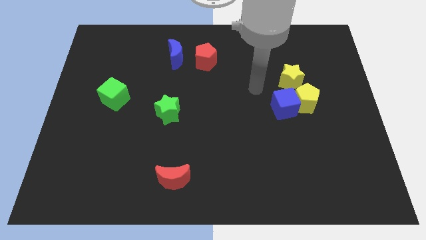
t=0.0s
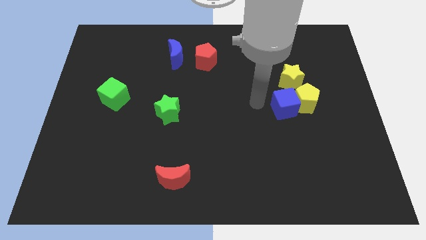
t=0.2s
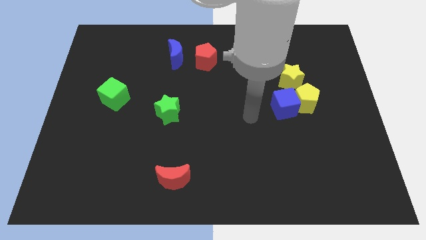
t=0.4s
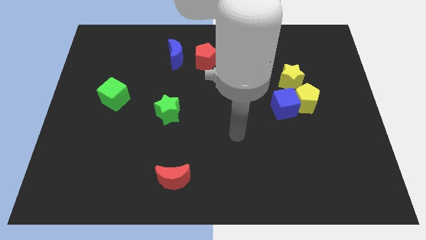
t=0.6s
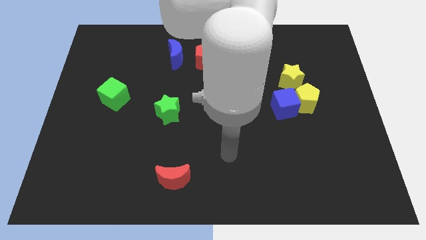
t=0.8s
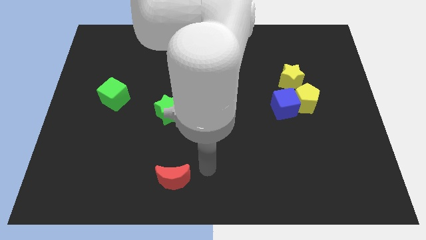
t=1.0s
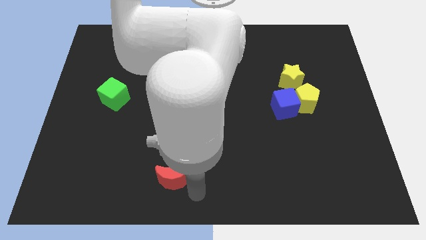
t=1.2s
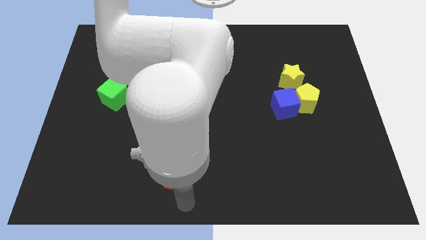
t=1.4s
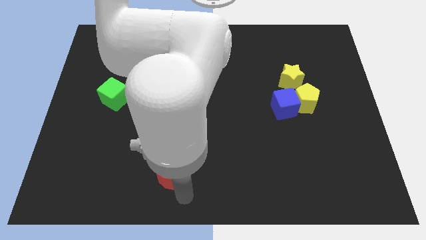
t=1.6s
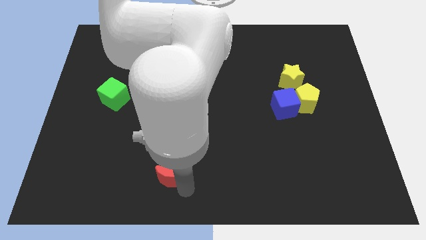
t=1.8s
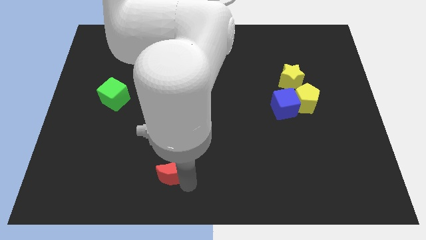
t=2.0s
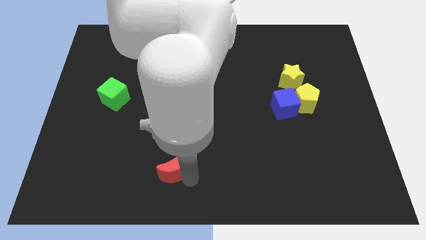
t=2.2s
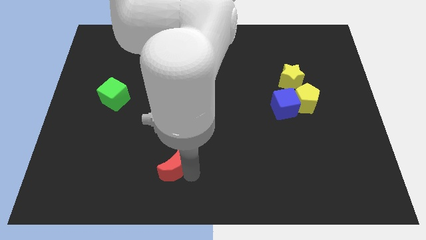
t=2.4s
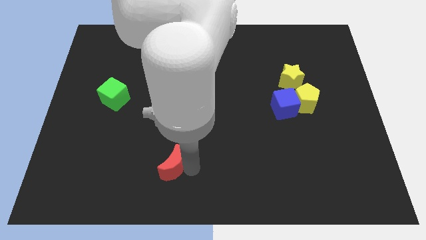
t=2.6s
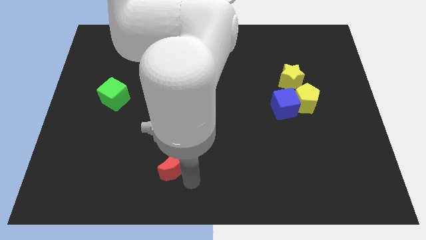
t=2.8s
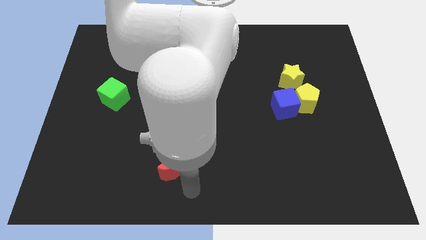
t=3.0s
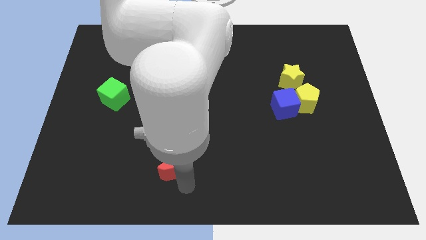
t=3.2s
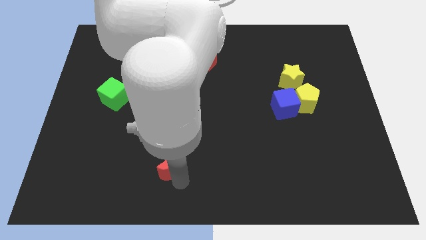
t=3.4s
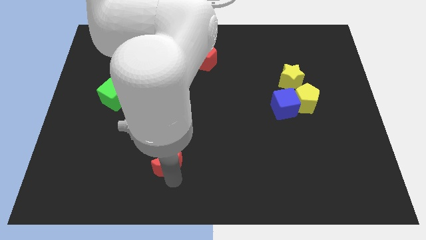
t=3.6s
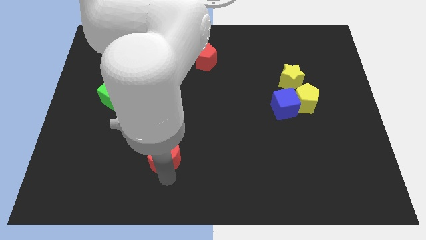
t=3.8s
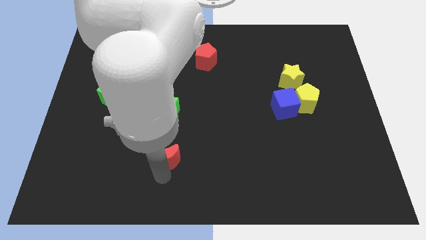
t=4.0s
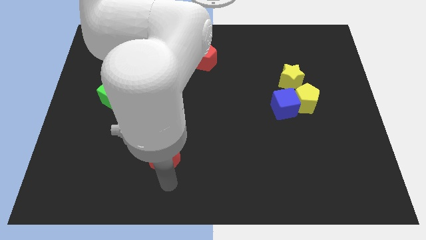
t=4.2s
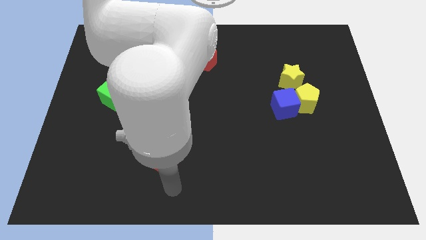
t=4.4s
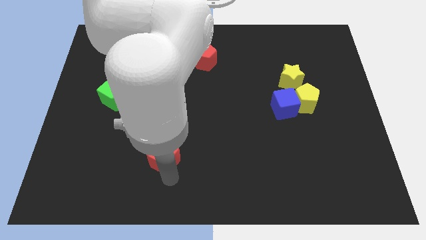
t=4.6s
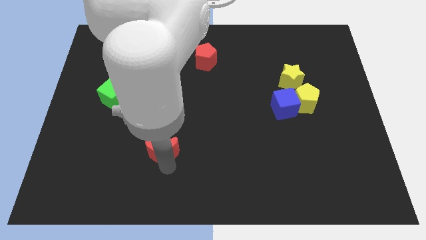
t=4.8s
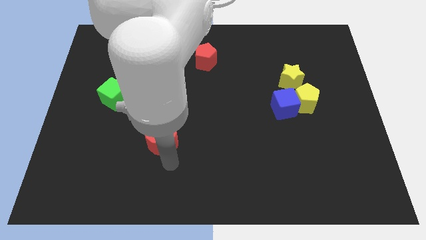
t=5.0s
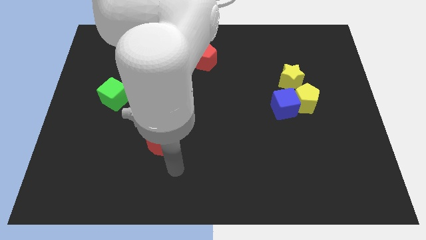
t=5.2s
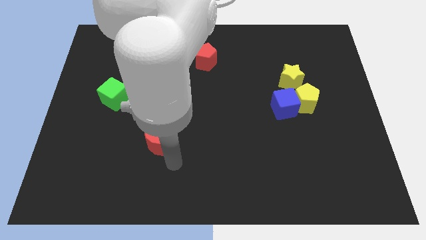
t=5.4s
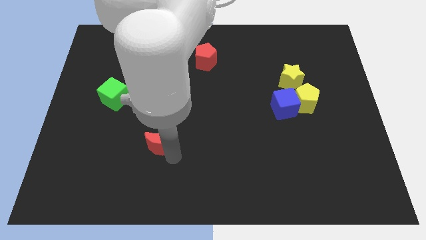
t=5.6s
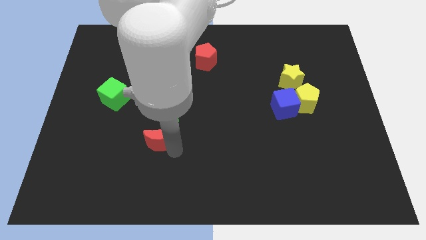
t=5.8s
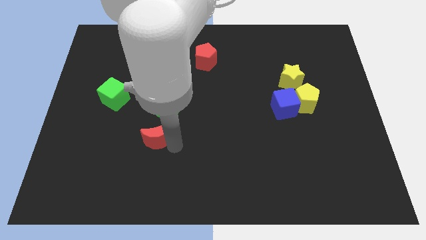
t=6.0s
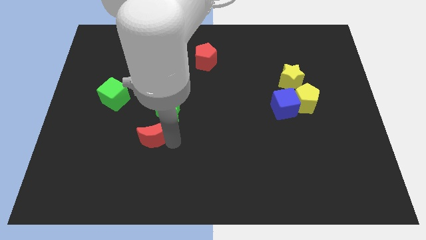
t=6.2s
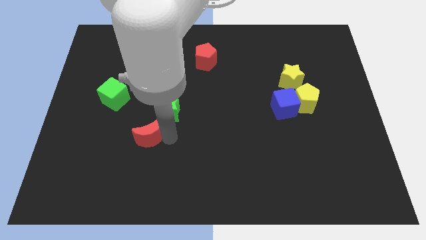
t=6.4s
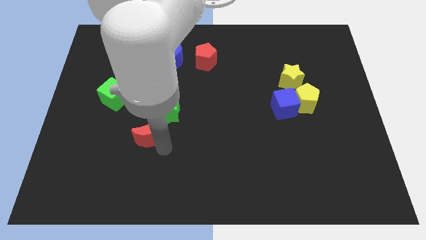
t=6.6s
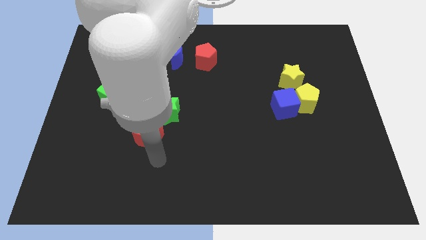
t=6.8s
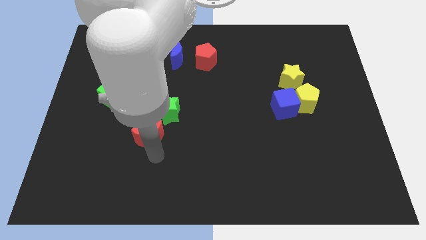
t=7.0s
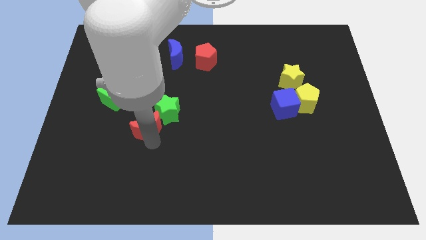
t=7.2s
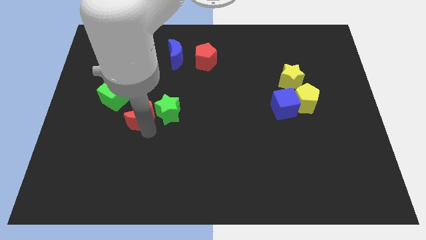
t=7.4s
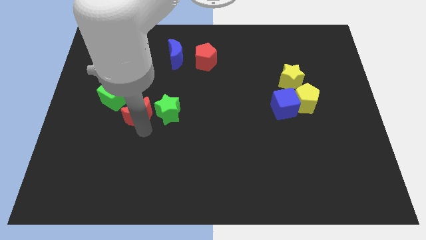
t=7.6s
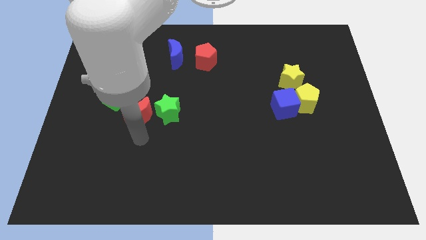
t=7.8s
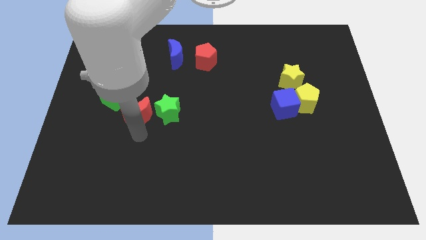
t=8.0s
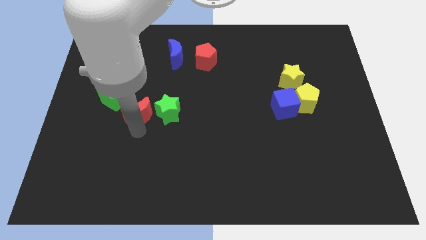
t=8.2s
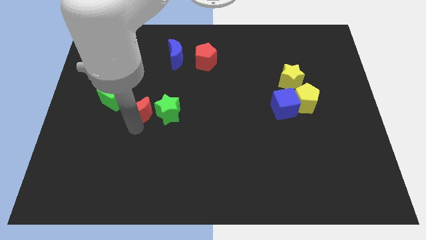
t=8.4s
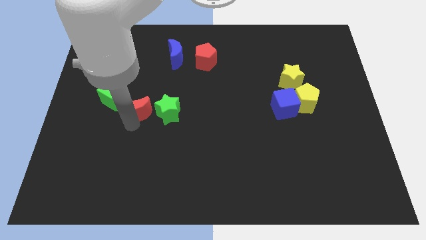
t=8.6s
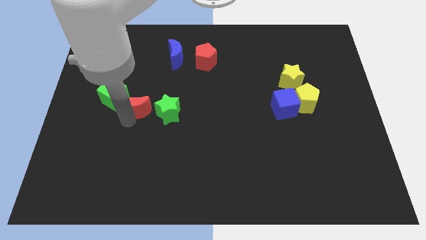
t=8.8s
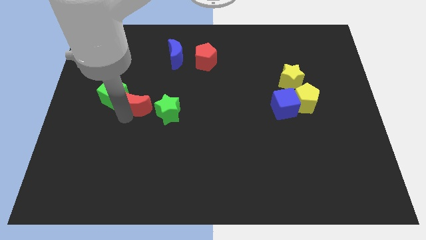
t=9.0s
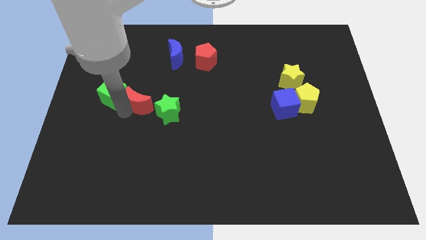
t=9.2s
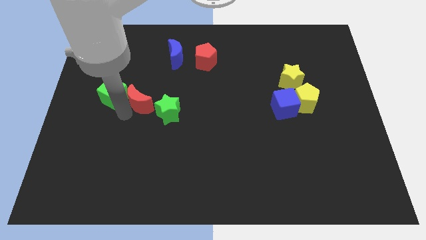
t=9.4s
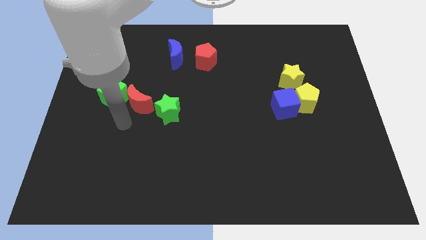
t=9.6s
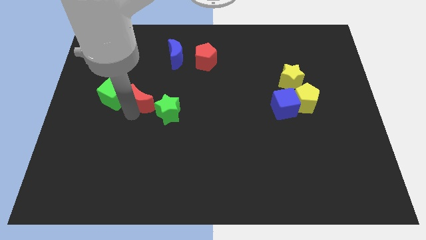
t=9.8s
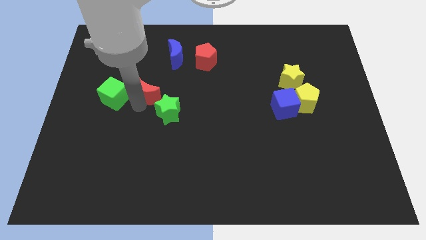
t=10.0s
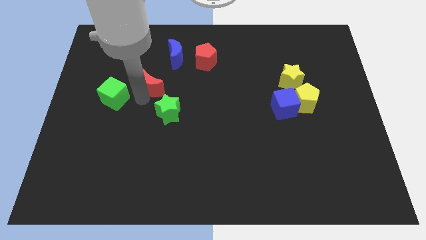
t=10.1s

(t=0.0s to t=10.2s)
move the red moon above the green star

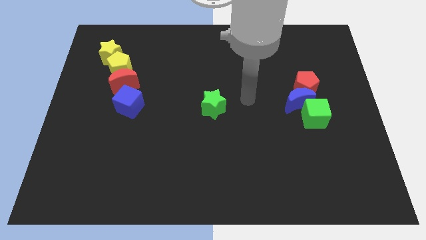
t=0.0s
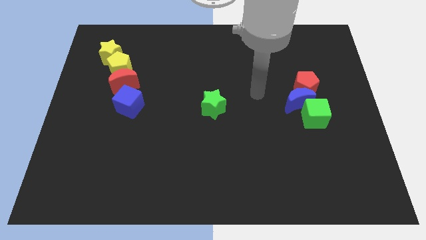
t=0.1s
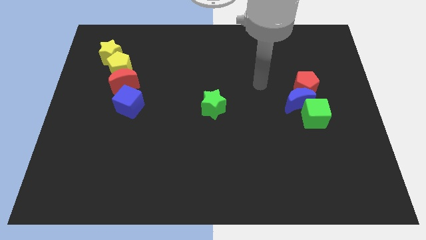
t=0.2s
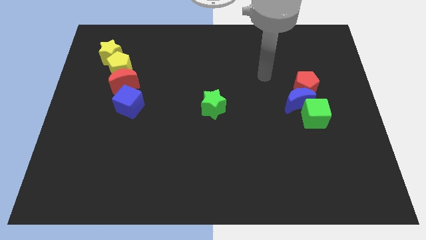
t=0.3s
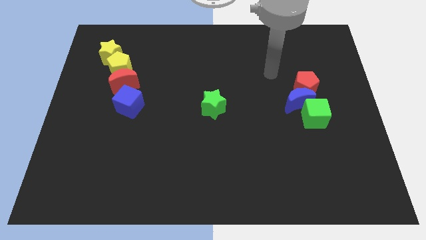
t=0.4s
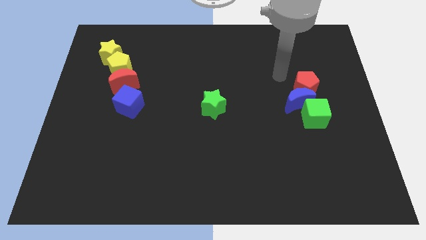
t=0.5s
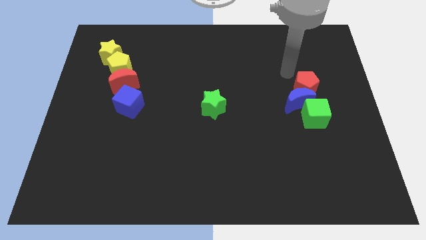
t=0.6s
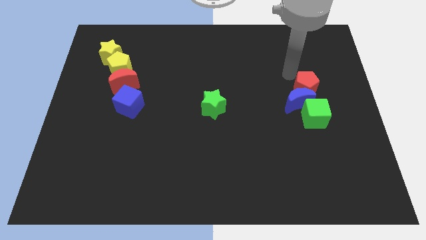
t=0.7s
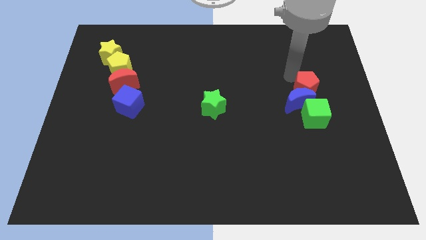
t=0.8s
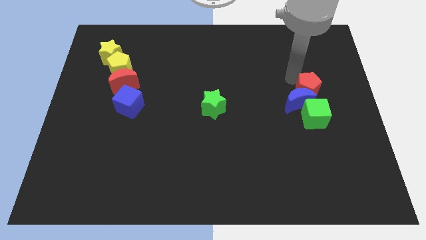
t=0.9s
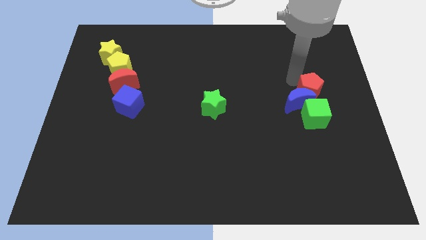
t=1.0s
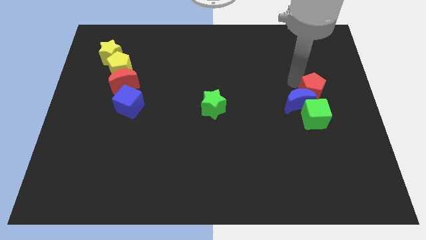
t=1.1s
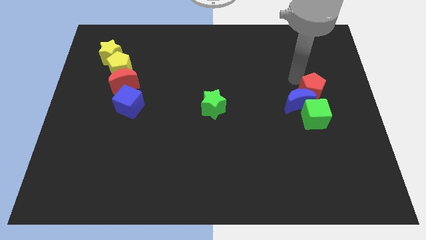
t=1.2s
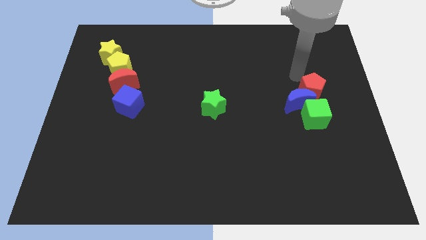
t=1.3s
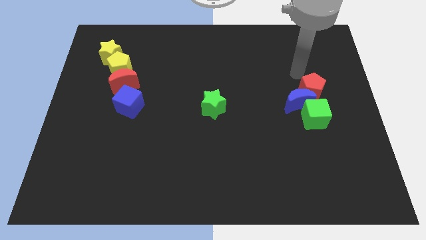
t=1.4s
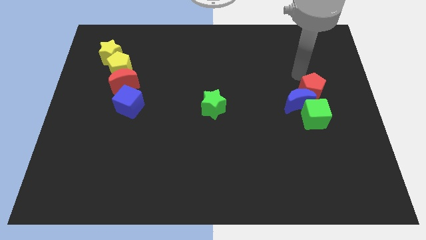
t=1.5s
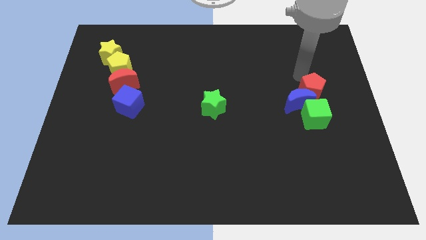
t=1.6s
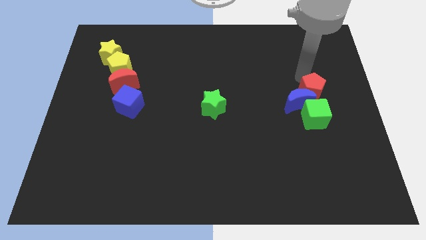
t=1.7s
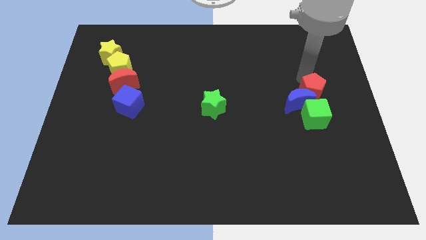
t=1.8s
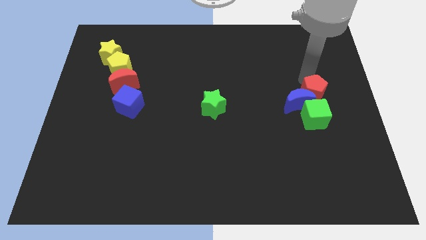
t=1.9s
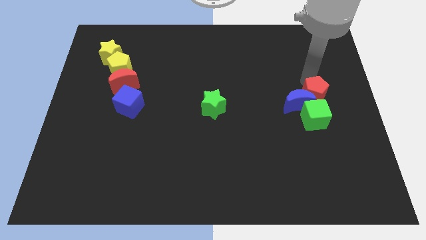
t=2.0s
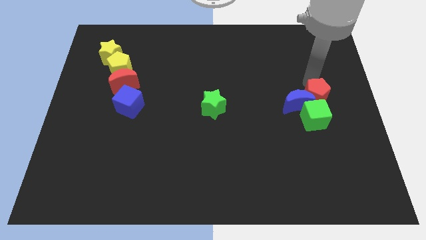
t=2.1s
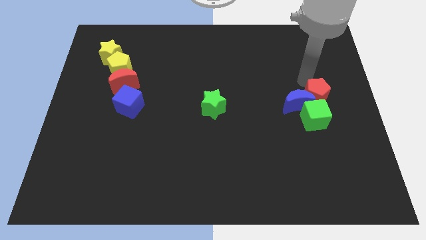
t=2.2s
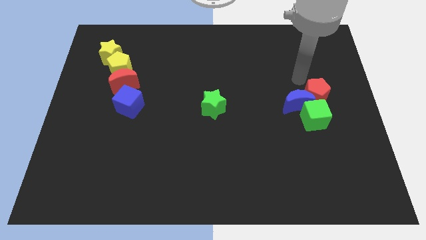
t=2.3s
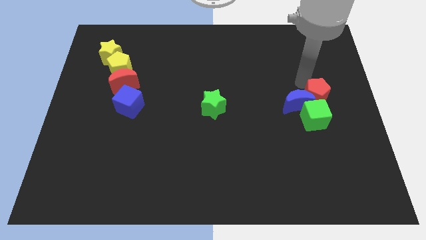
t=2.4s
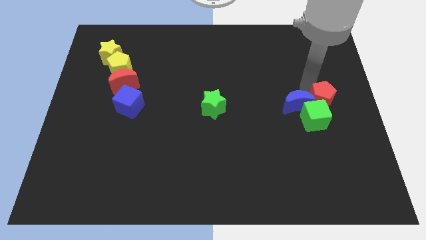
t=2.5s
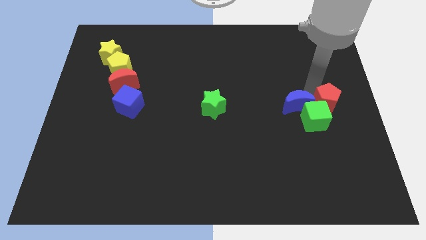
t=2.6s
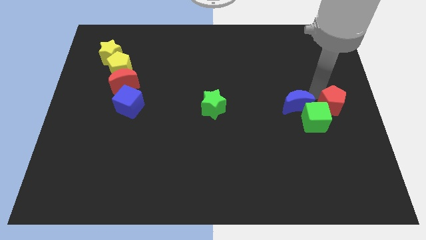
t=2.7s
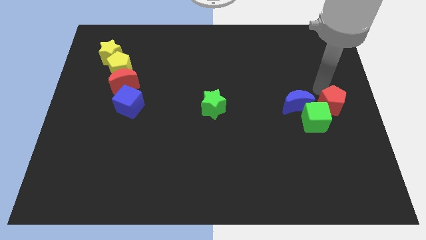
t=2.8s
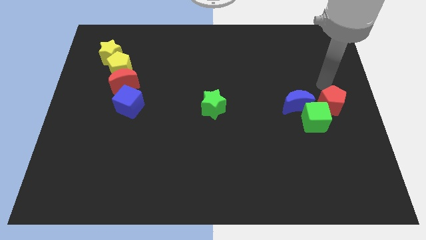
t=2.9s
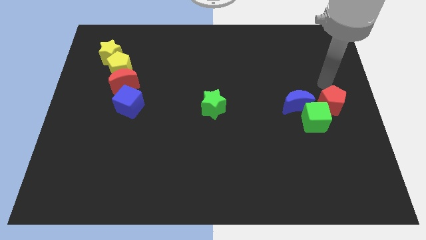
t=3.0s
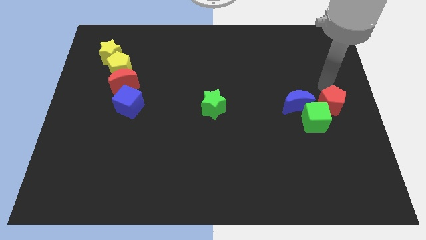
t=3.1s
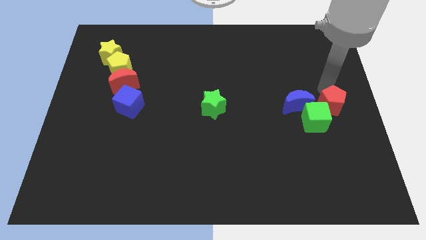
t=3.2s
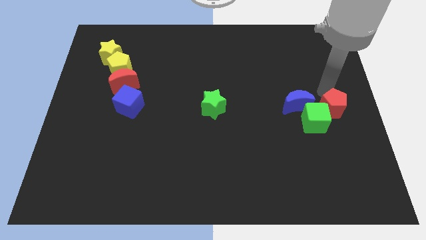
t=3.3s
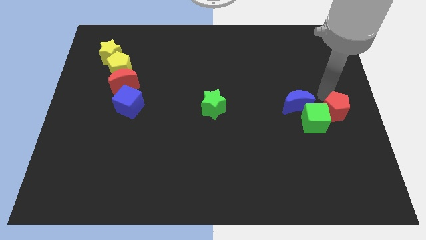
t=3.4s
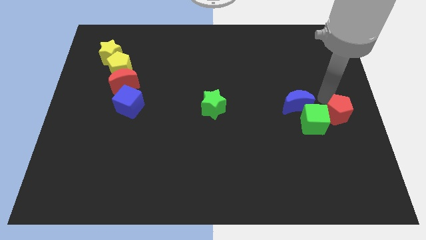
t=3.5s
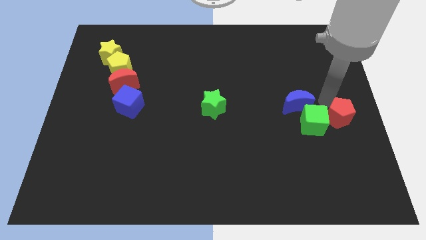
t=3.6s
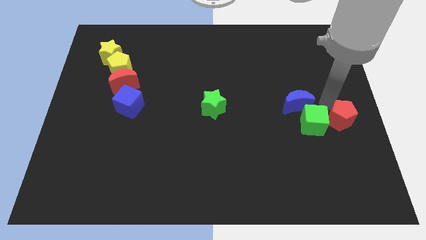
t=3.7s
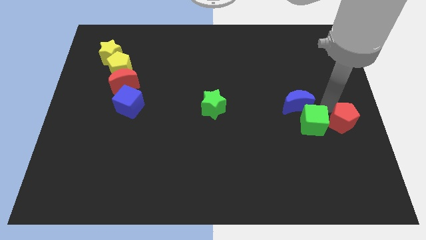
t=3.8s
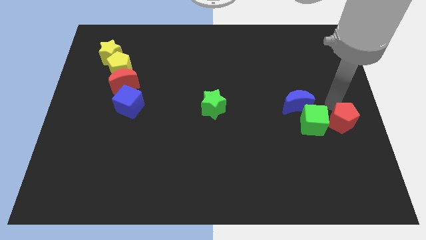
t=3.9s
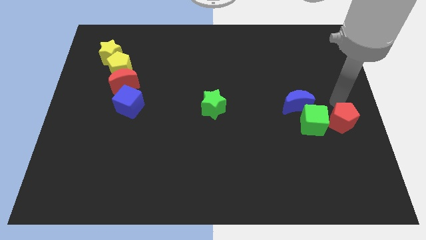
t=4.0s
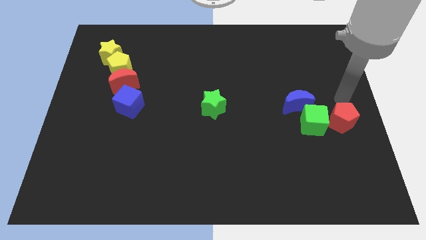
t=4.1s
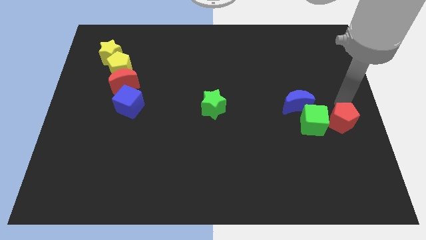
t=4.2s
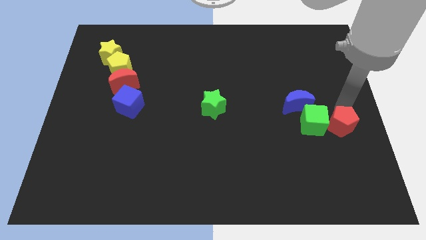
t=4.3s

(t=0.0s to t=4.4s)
push the red pentagon diagonally down and to the right of the green cube
